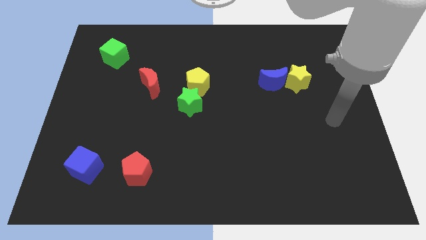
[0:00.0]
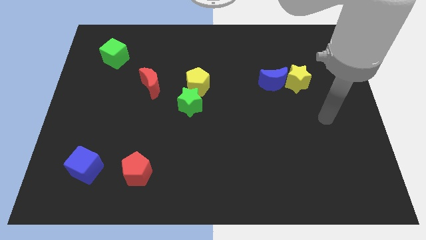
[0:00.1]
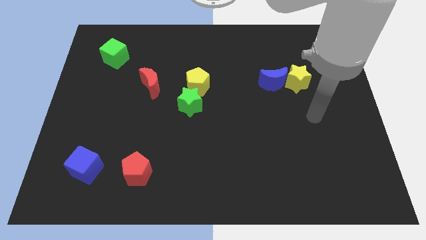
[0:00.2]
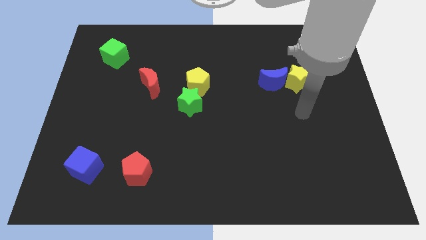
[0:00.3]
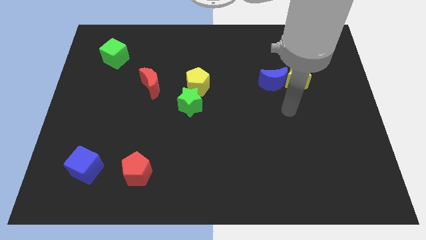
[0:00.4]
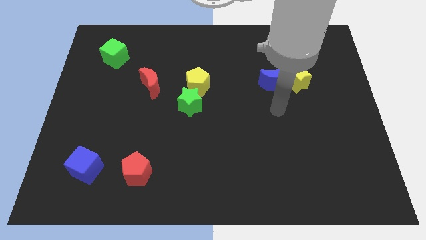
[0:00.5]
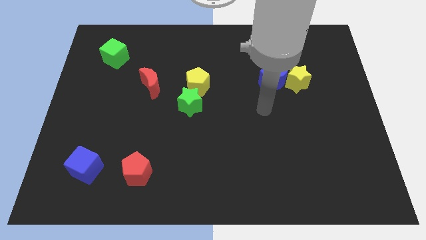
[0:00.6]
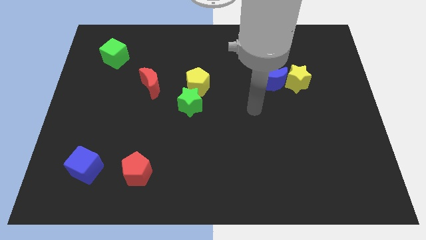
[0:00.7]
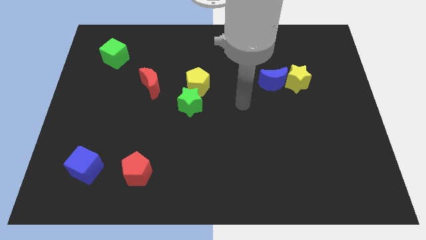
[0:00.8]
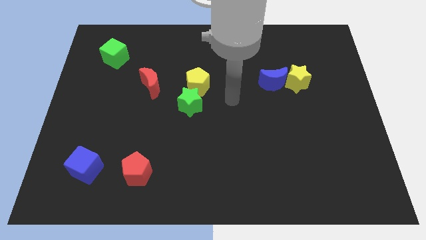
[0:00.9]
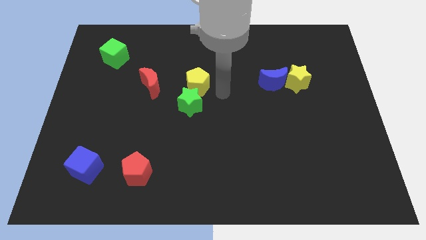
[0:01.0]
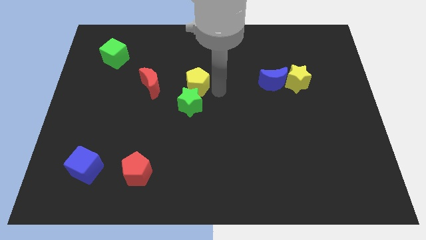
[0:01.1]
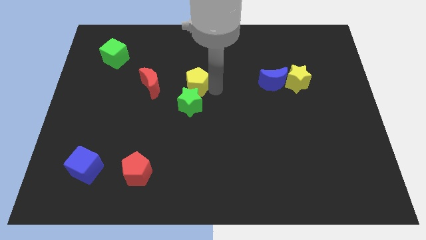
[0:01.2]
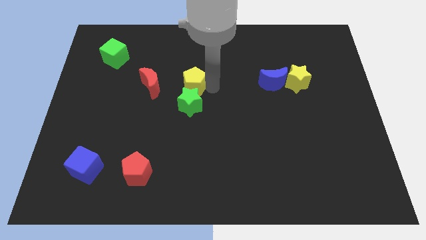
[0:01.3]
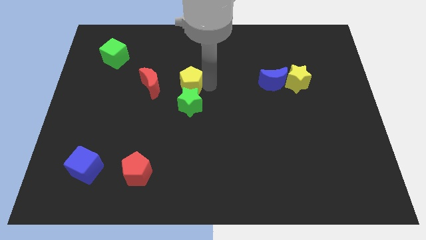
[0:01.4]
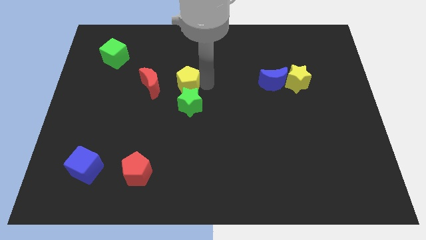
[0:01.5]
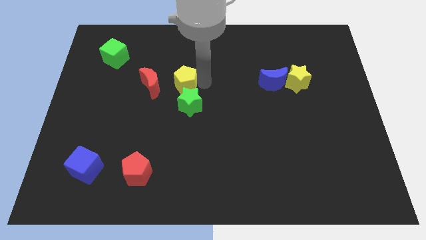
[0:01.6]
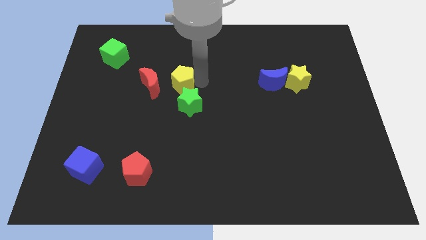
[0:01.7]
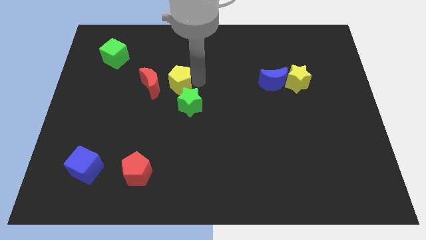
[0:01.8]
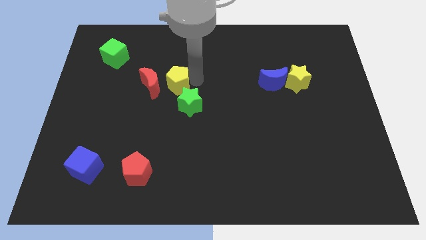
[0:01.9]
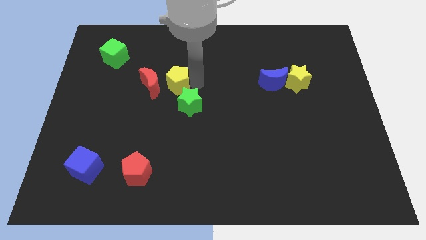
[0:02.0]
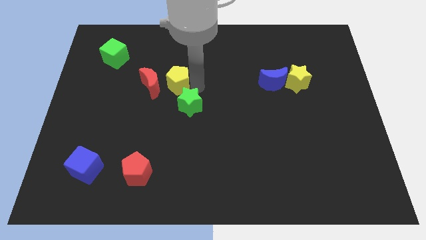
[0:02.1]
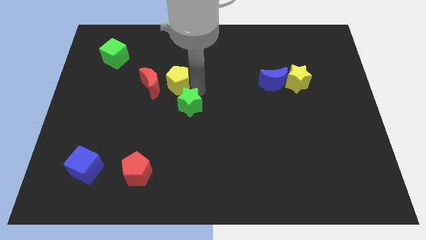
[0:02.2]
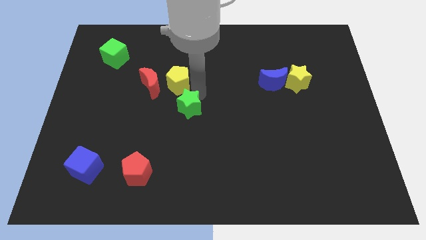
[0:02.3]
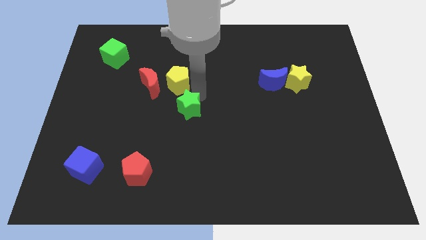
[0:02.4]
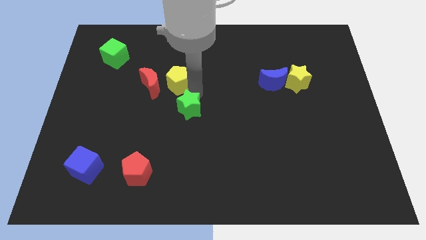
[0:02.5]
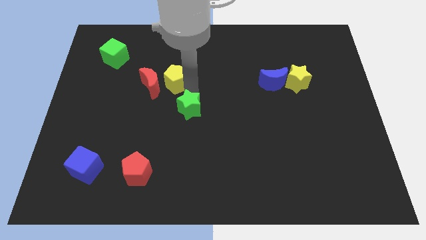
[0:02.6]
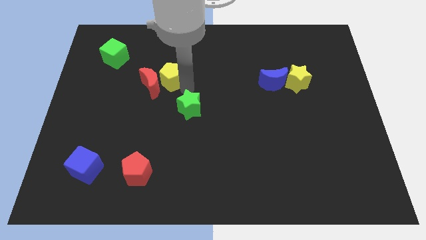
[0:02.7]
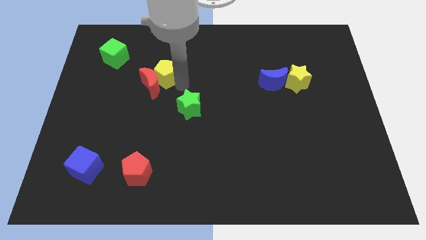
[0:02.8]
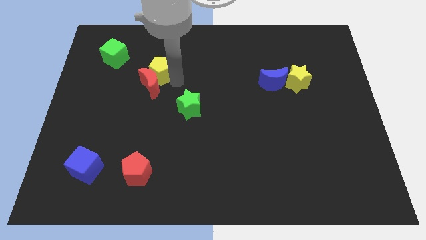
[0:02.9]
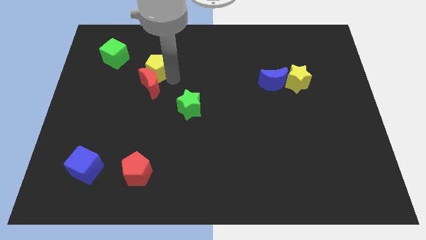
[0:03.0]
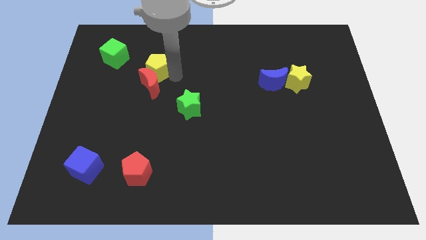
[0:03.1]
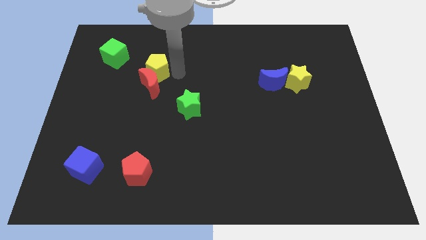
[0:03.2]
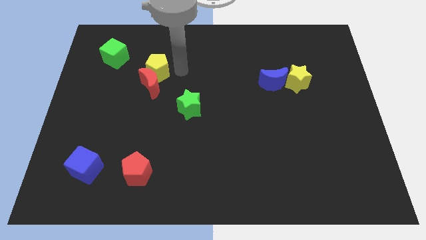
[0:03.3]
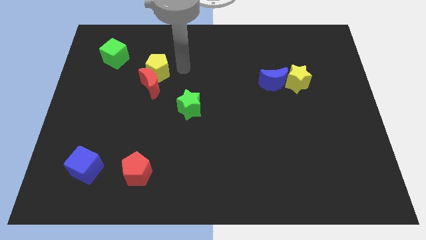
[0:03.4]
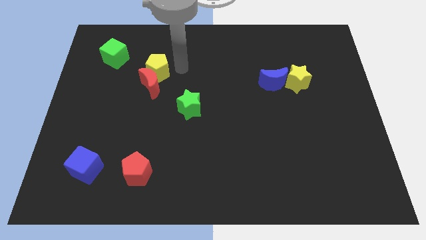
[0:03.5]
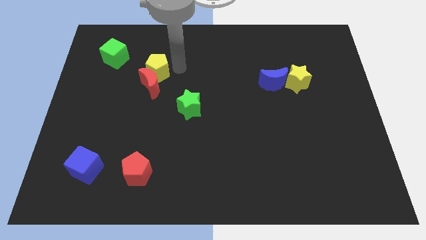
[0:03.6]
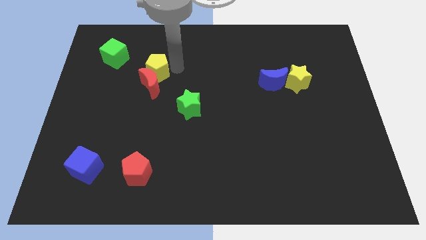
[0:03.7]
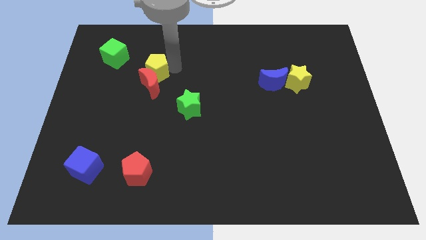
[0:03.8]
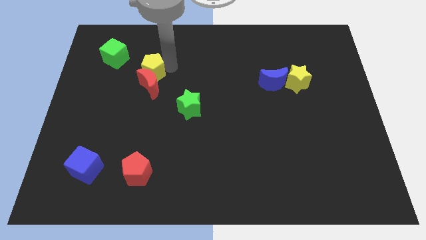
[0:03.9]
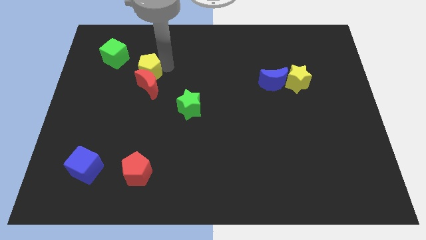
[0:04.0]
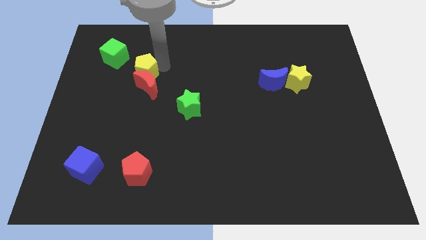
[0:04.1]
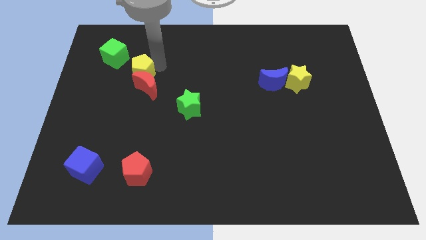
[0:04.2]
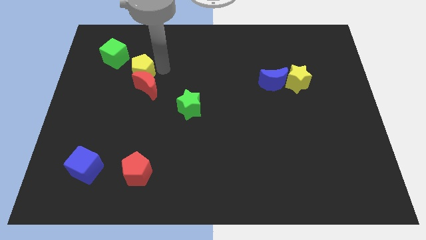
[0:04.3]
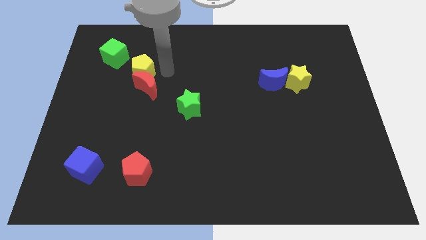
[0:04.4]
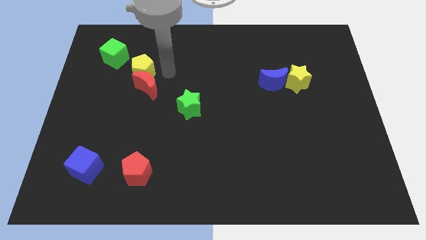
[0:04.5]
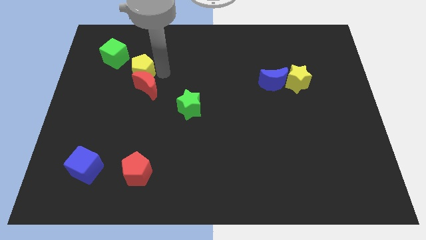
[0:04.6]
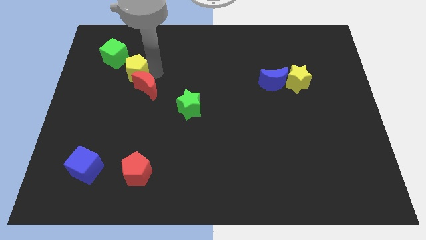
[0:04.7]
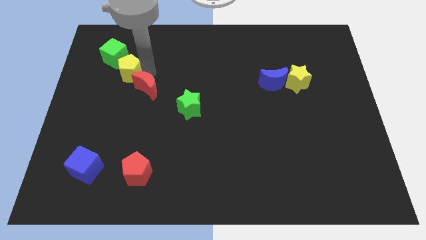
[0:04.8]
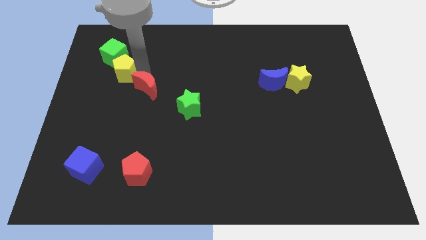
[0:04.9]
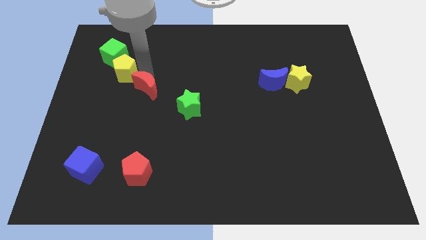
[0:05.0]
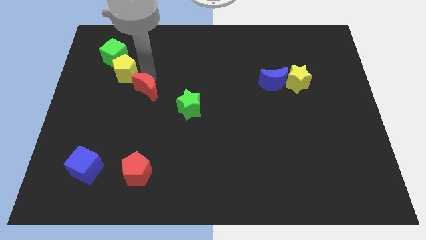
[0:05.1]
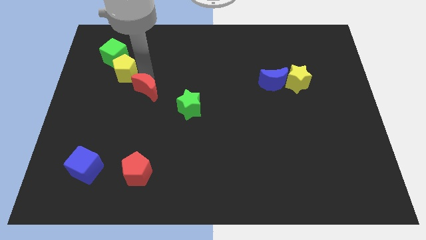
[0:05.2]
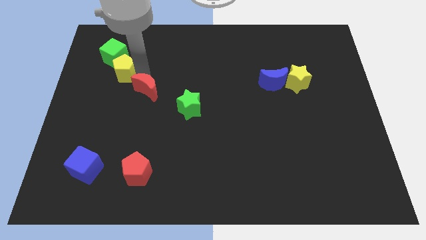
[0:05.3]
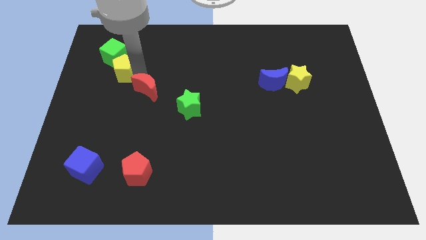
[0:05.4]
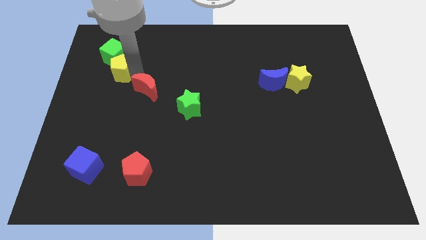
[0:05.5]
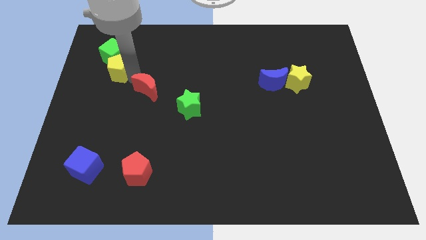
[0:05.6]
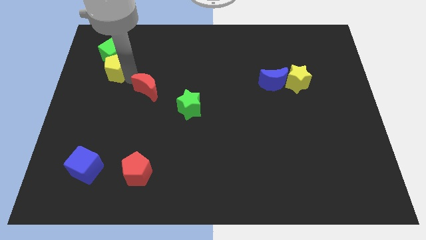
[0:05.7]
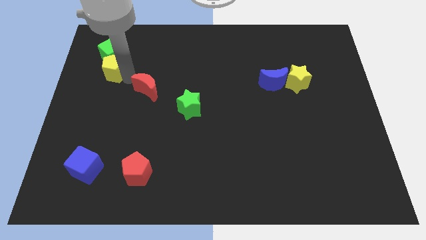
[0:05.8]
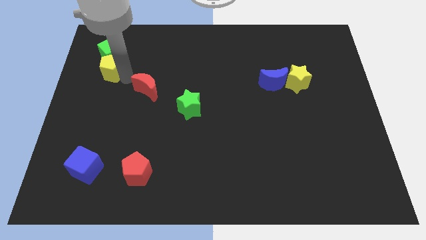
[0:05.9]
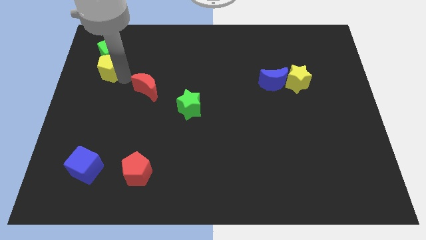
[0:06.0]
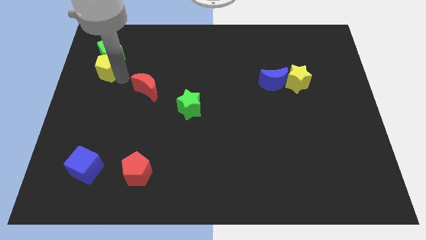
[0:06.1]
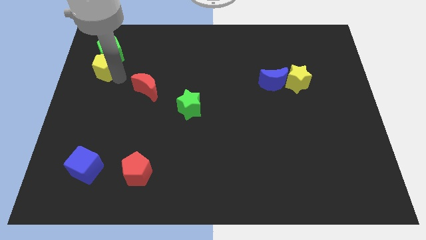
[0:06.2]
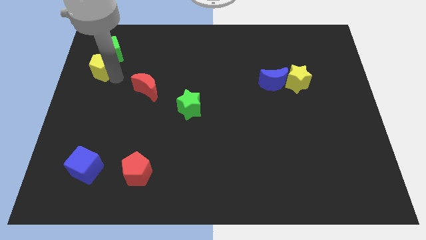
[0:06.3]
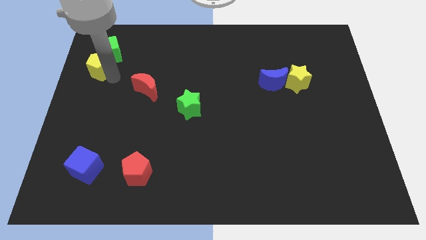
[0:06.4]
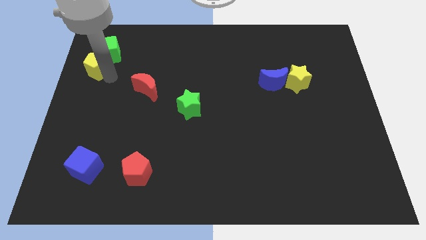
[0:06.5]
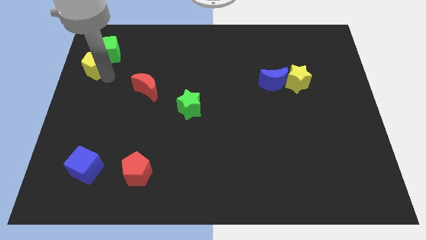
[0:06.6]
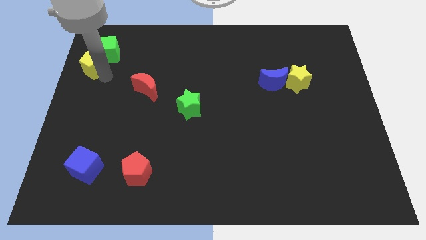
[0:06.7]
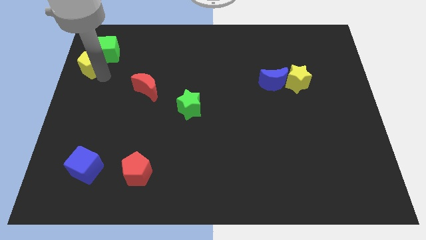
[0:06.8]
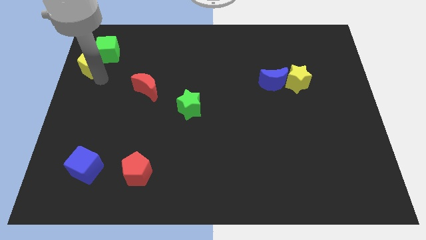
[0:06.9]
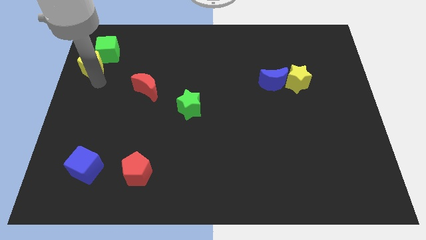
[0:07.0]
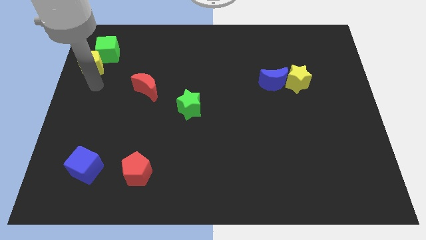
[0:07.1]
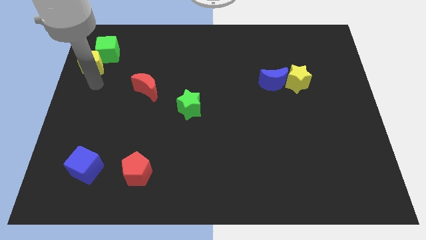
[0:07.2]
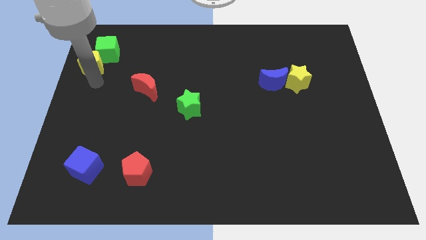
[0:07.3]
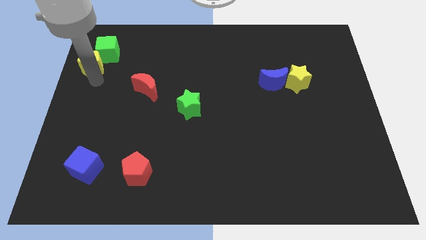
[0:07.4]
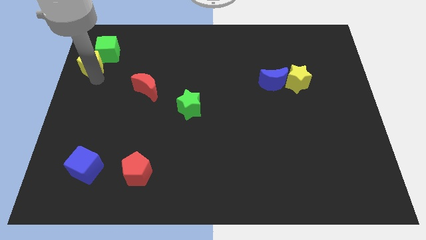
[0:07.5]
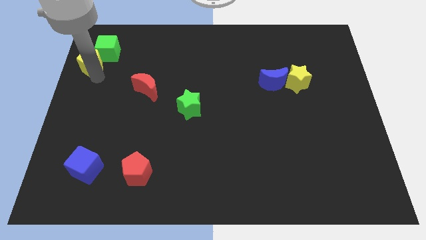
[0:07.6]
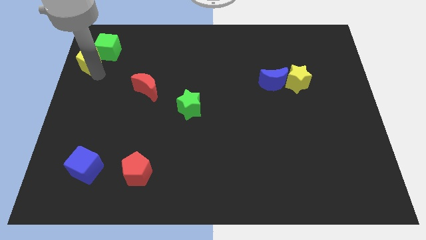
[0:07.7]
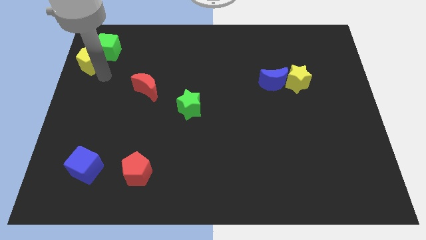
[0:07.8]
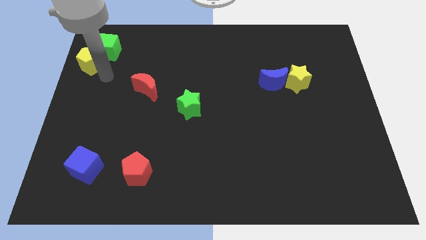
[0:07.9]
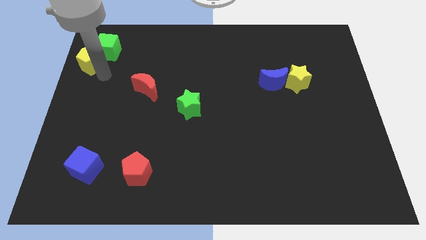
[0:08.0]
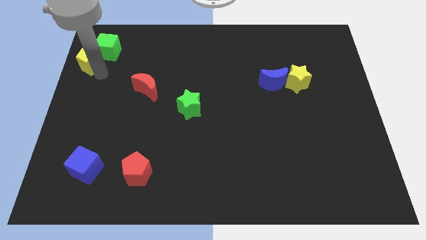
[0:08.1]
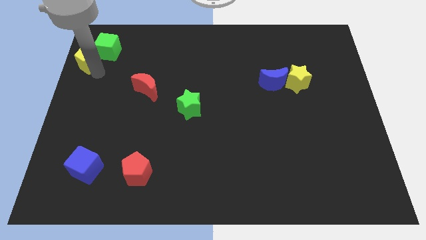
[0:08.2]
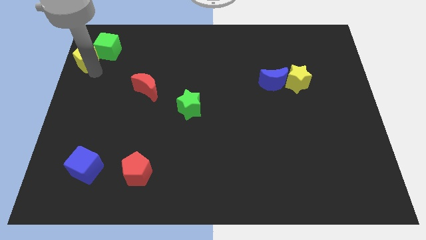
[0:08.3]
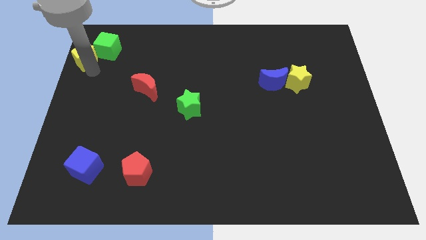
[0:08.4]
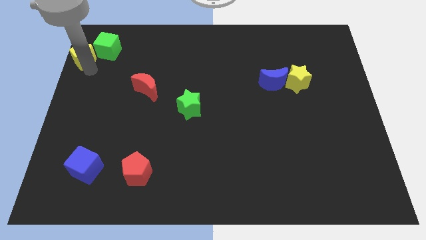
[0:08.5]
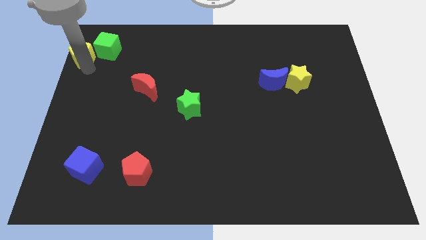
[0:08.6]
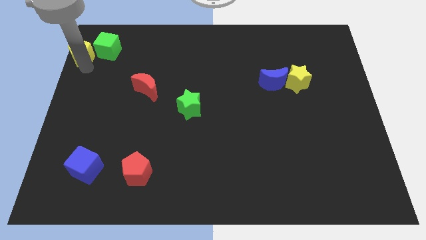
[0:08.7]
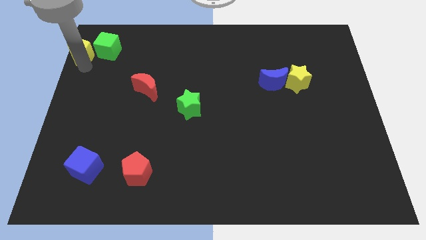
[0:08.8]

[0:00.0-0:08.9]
slide the yellow pentagon to the top left of the board
